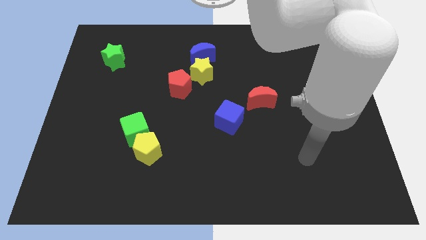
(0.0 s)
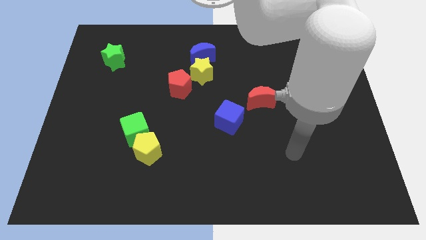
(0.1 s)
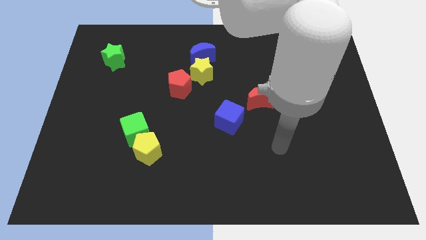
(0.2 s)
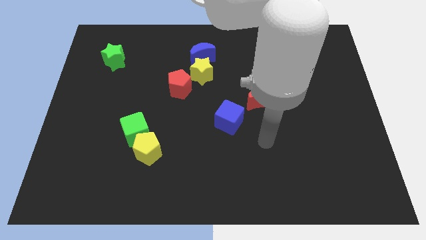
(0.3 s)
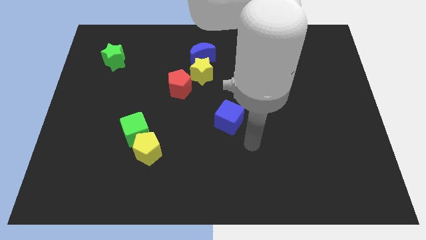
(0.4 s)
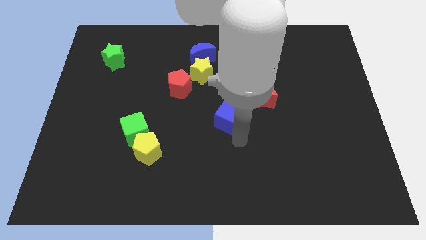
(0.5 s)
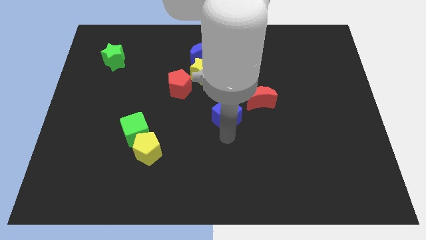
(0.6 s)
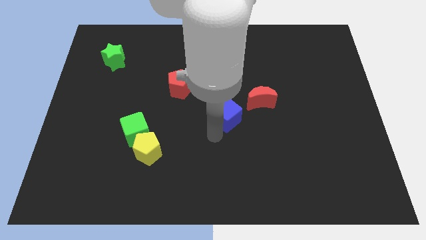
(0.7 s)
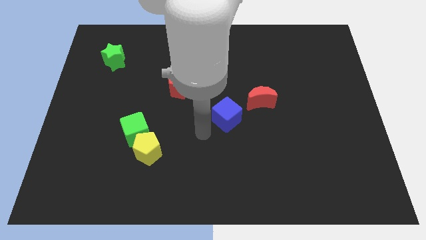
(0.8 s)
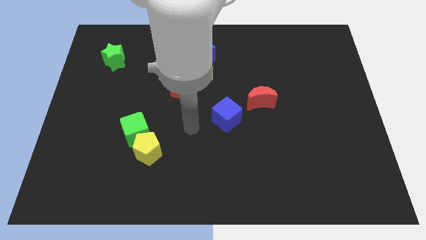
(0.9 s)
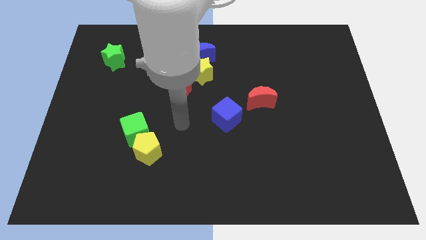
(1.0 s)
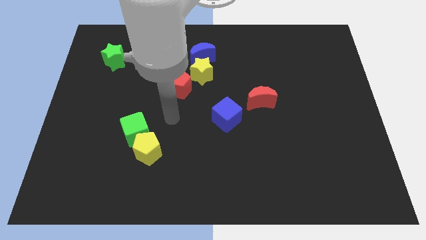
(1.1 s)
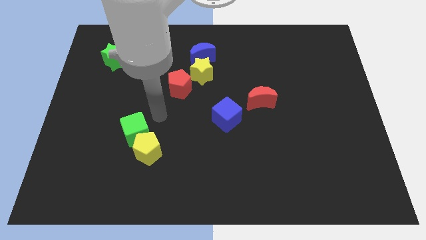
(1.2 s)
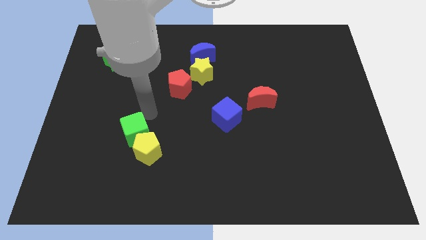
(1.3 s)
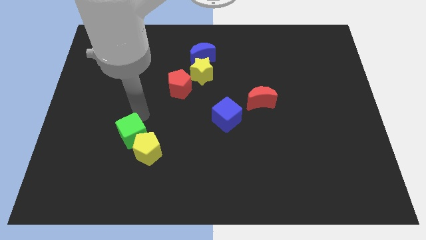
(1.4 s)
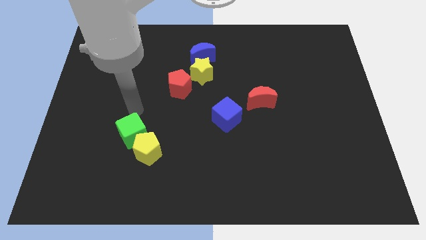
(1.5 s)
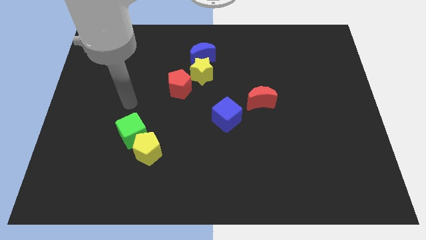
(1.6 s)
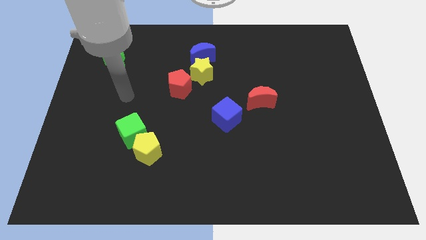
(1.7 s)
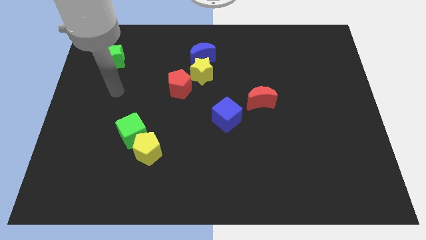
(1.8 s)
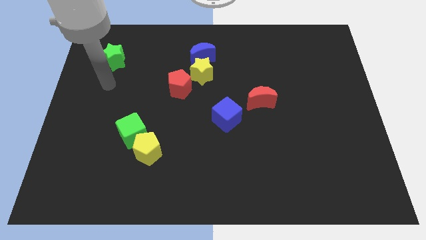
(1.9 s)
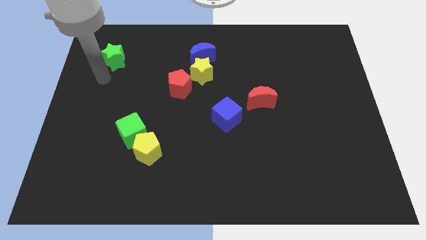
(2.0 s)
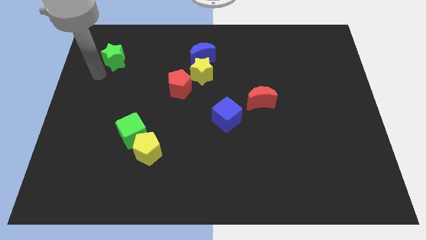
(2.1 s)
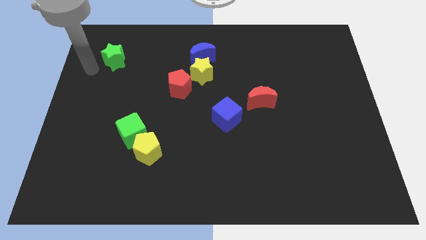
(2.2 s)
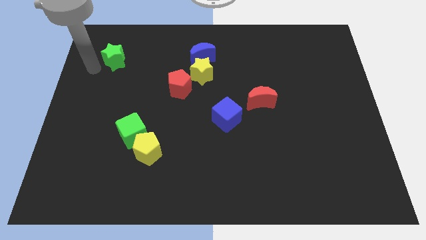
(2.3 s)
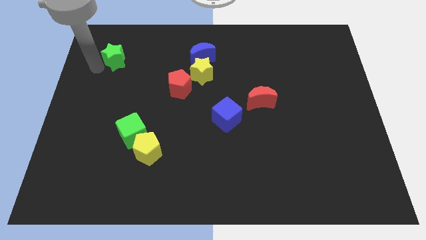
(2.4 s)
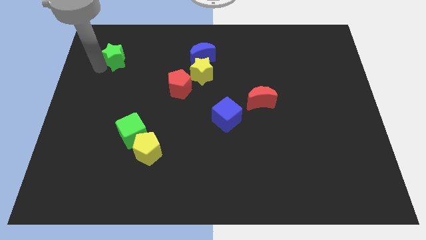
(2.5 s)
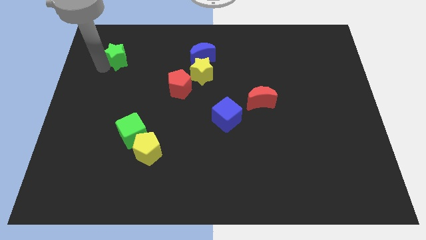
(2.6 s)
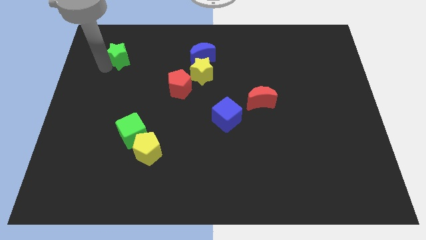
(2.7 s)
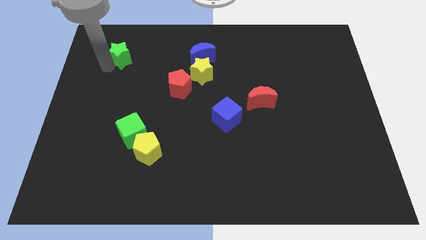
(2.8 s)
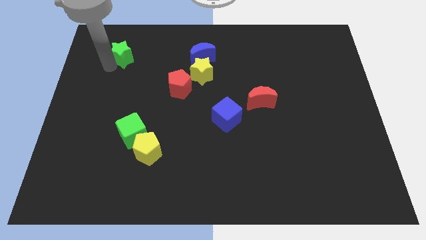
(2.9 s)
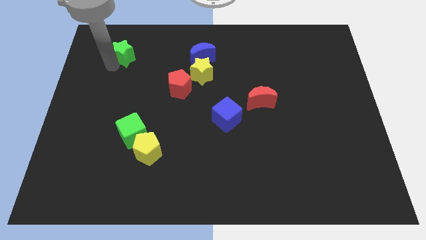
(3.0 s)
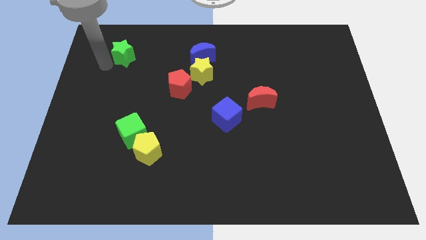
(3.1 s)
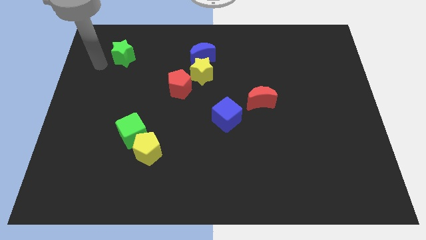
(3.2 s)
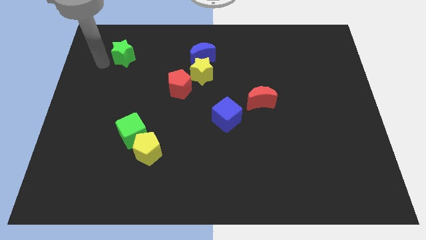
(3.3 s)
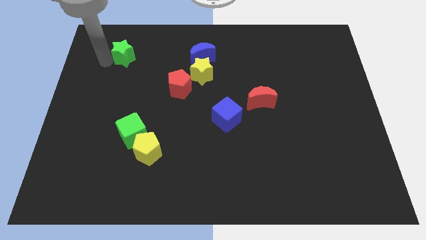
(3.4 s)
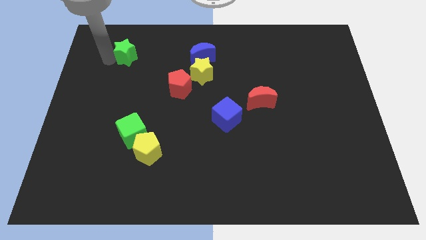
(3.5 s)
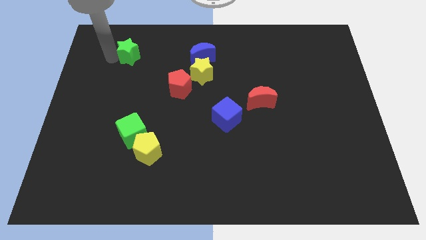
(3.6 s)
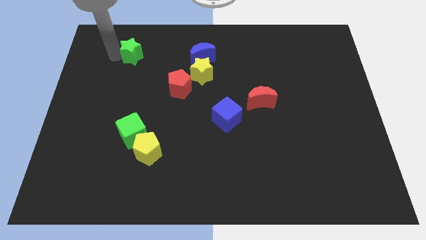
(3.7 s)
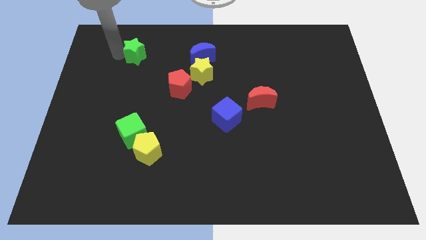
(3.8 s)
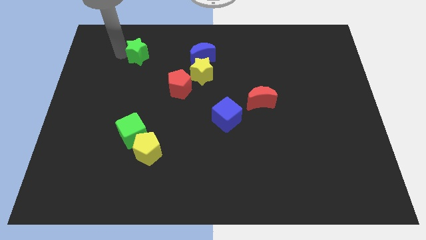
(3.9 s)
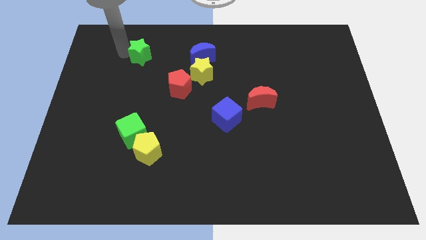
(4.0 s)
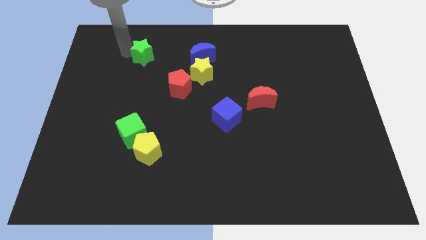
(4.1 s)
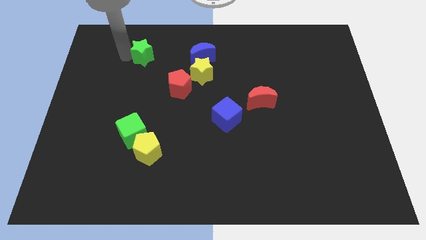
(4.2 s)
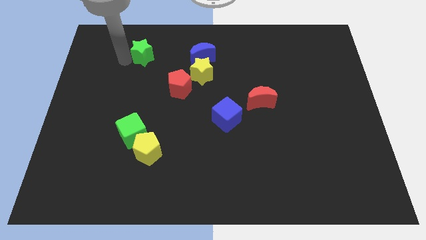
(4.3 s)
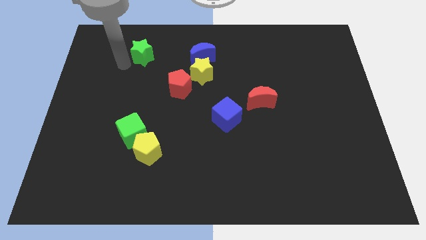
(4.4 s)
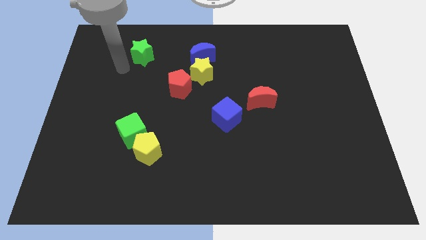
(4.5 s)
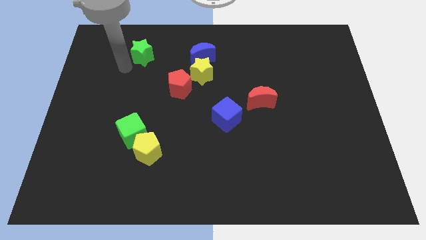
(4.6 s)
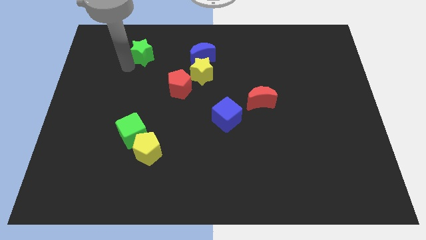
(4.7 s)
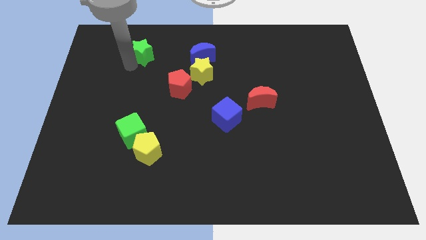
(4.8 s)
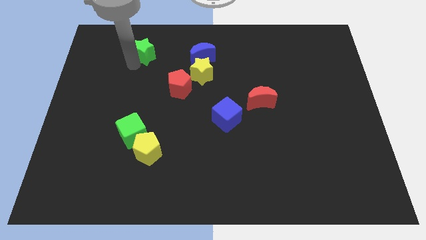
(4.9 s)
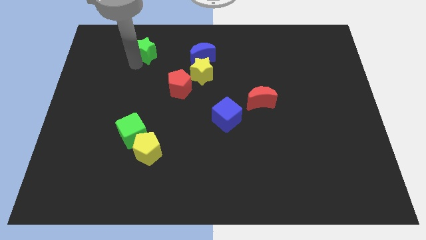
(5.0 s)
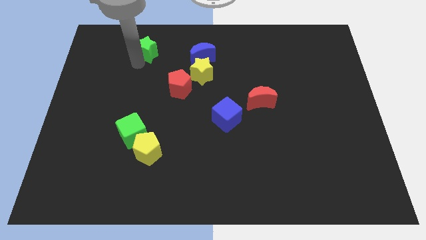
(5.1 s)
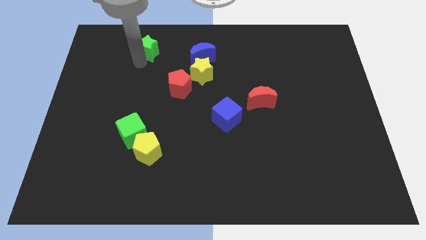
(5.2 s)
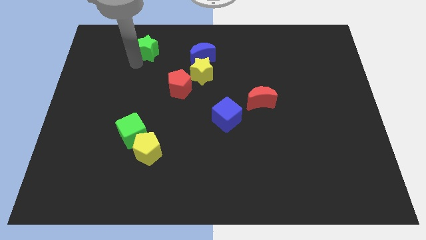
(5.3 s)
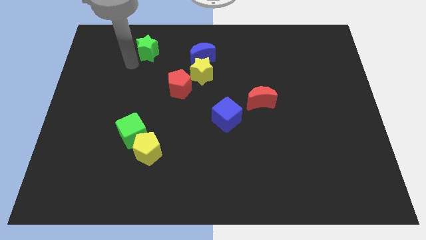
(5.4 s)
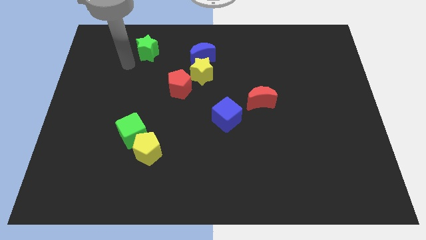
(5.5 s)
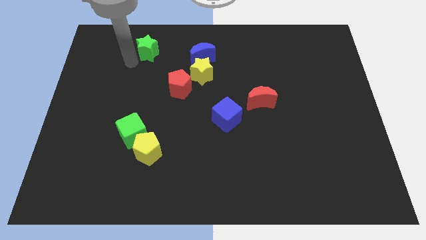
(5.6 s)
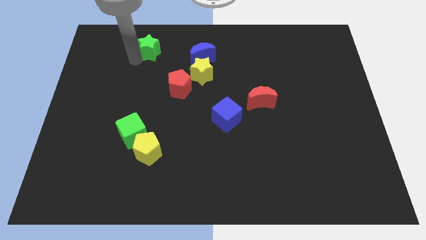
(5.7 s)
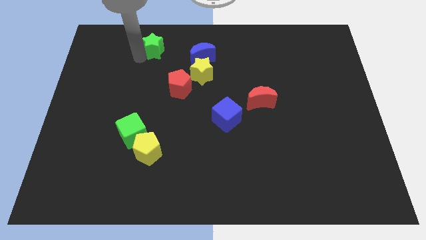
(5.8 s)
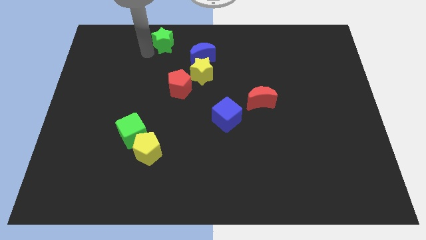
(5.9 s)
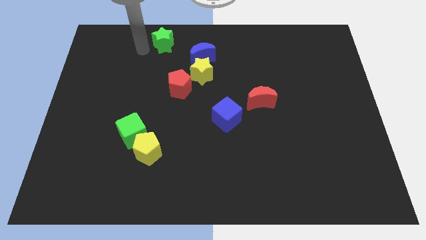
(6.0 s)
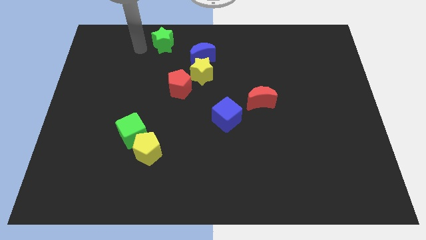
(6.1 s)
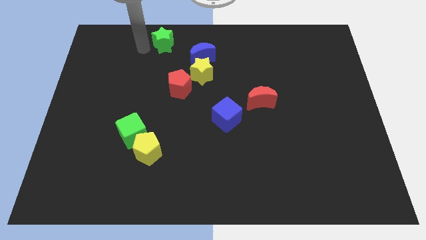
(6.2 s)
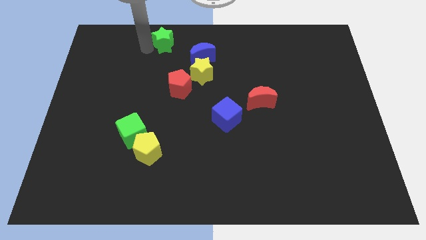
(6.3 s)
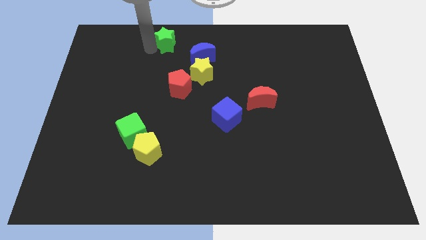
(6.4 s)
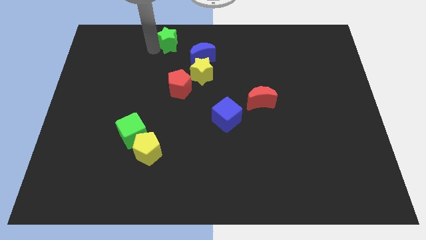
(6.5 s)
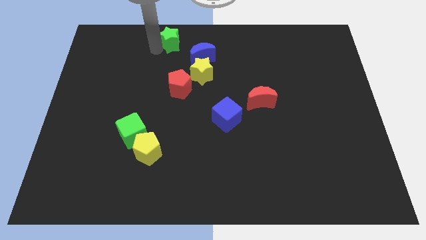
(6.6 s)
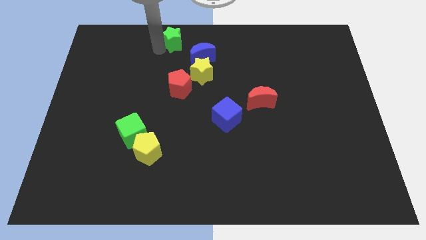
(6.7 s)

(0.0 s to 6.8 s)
slide the green star to the top side
